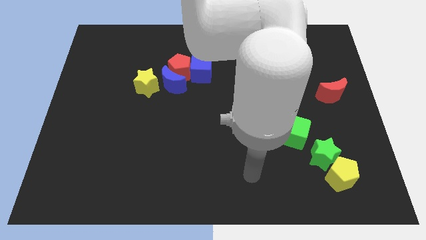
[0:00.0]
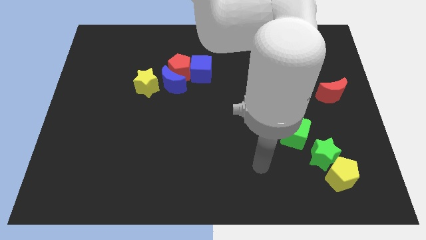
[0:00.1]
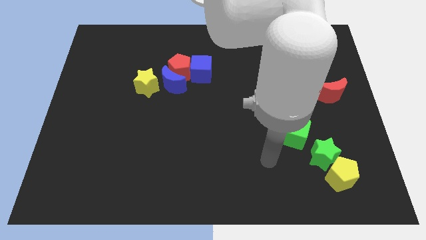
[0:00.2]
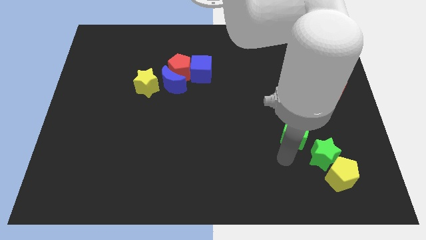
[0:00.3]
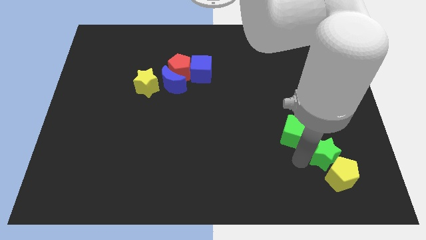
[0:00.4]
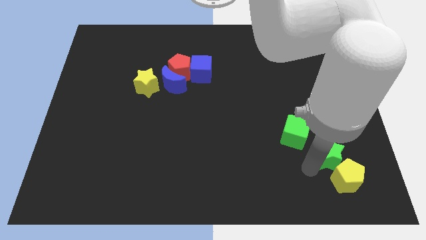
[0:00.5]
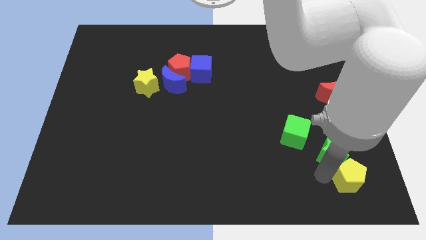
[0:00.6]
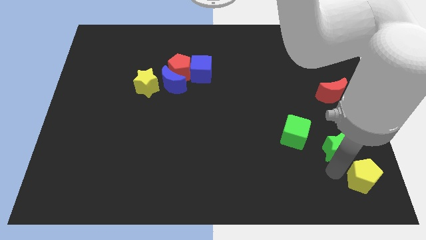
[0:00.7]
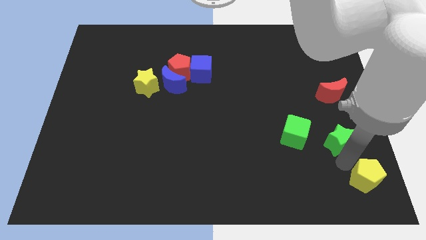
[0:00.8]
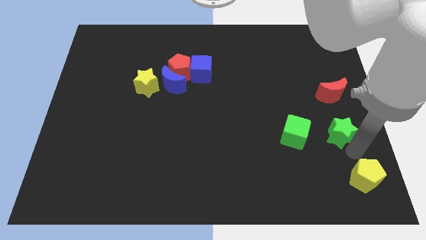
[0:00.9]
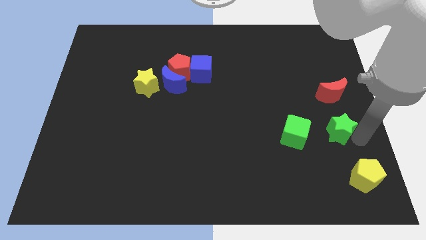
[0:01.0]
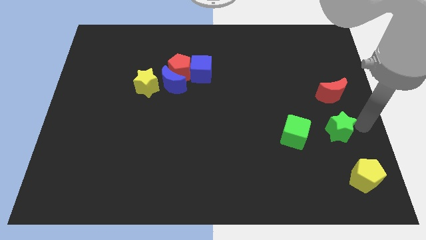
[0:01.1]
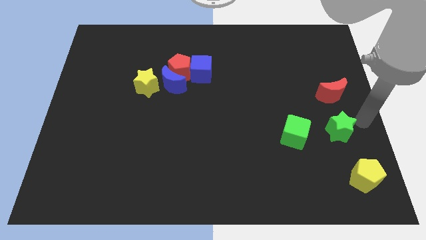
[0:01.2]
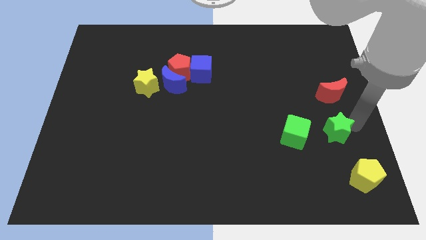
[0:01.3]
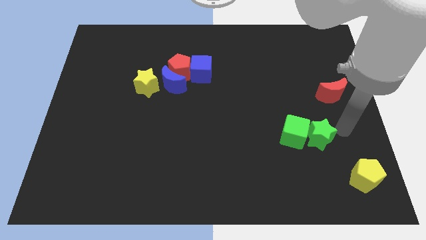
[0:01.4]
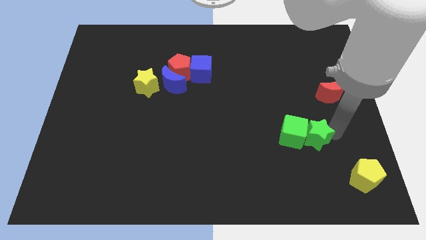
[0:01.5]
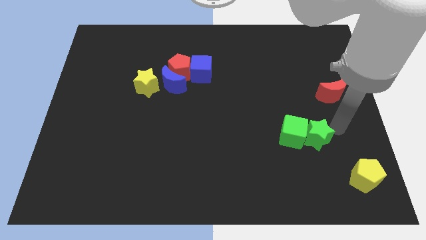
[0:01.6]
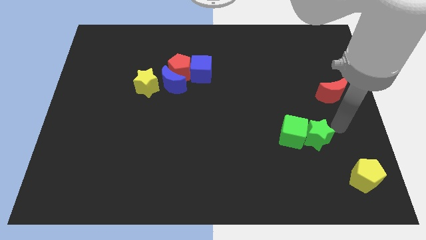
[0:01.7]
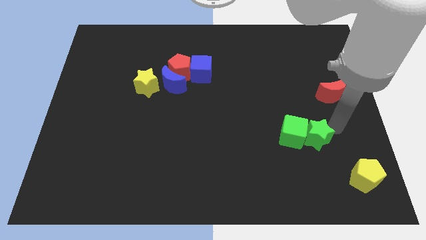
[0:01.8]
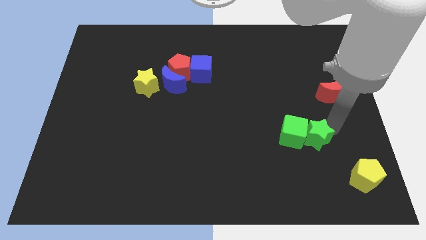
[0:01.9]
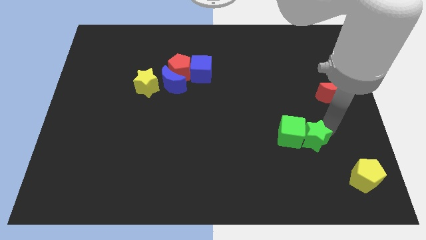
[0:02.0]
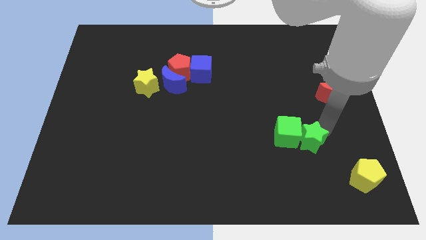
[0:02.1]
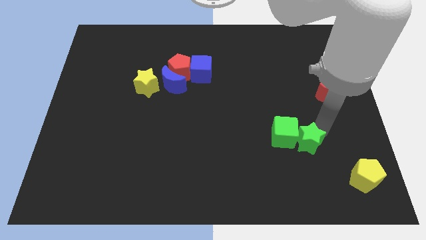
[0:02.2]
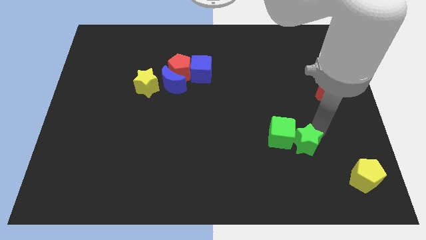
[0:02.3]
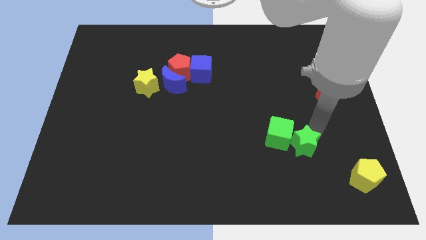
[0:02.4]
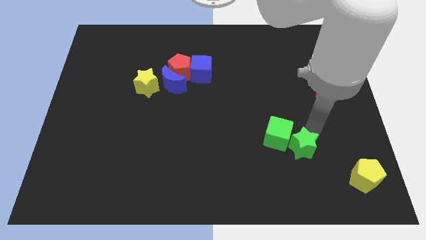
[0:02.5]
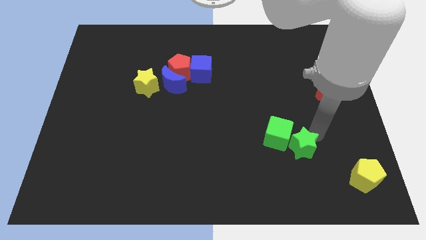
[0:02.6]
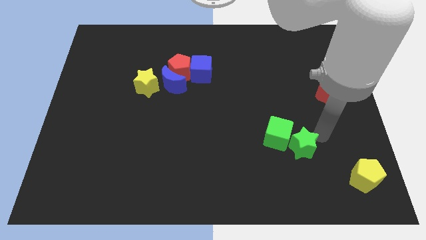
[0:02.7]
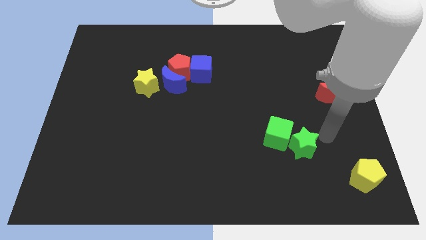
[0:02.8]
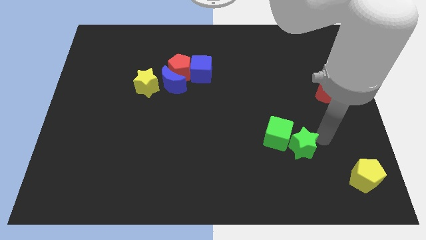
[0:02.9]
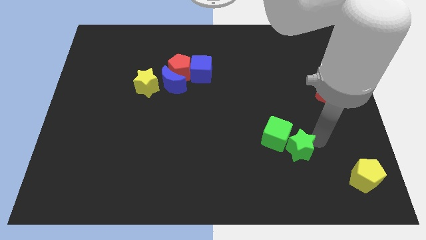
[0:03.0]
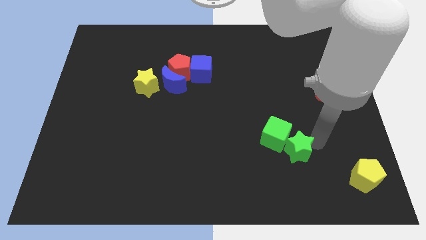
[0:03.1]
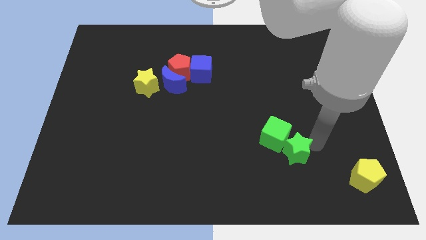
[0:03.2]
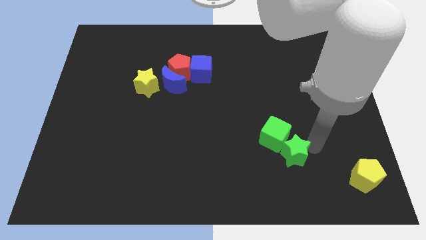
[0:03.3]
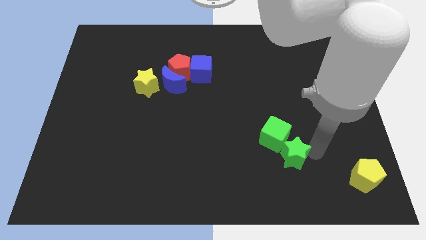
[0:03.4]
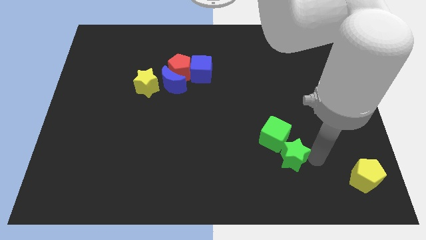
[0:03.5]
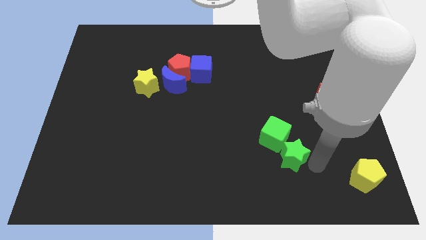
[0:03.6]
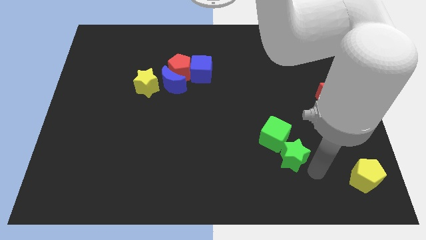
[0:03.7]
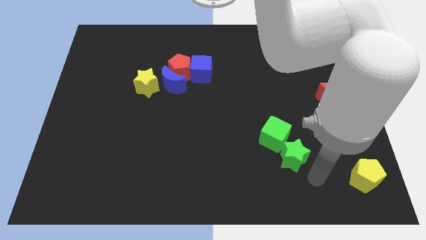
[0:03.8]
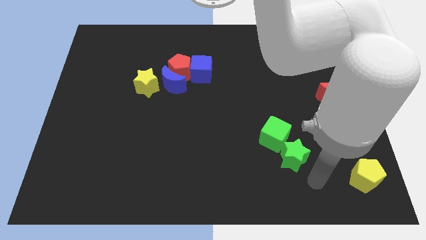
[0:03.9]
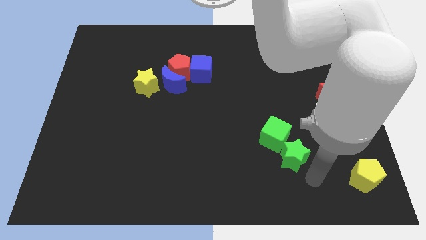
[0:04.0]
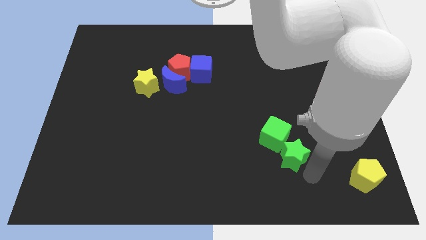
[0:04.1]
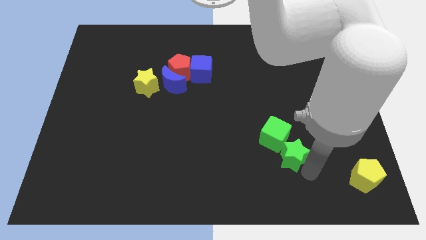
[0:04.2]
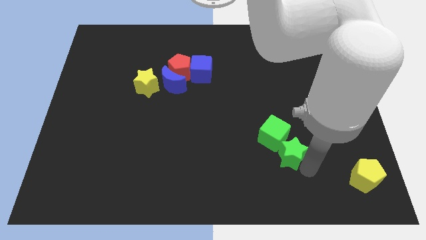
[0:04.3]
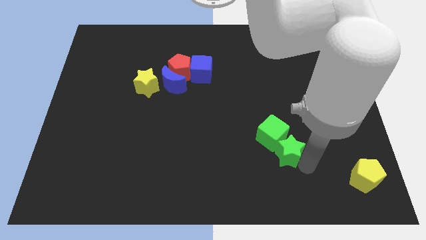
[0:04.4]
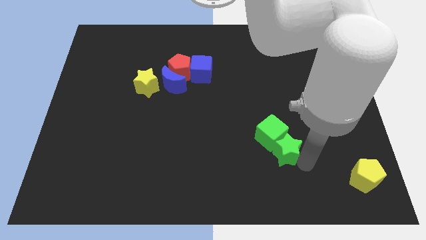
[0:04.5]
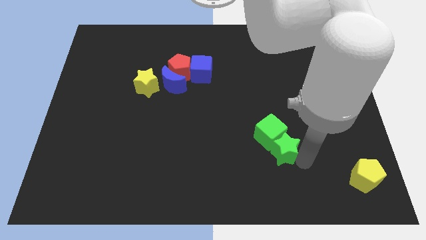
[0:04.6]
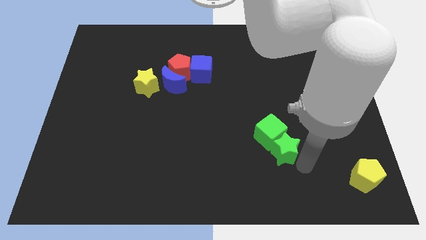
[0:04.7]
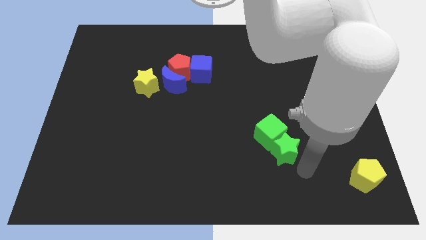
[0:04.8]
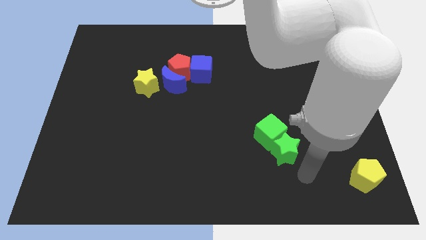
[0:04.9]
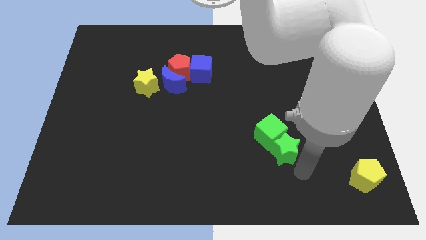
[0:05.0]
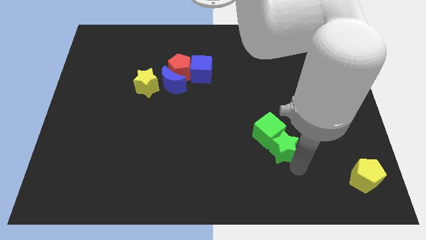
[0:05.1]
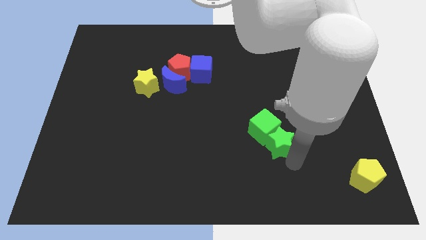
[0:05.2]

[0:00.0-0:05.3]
slide the green star somewhat upwards and left diagonally

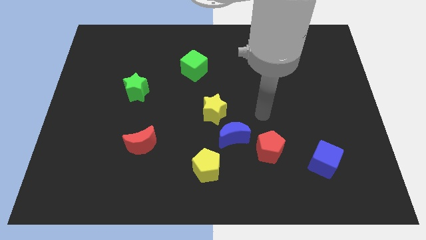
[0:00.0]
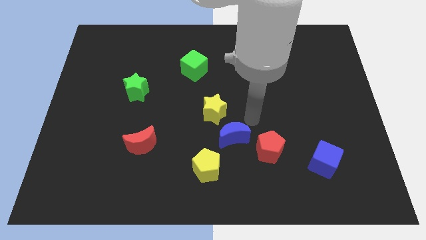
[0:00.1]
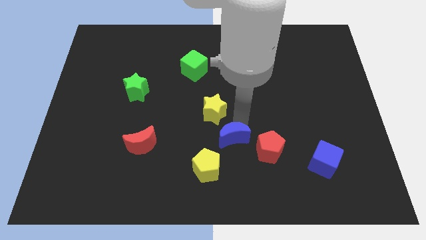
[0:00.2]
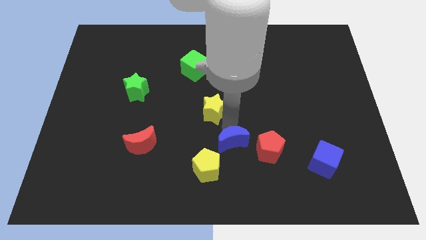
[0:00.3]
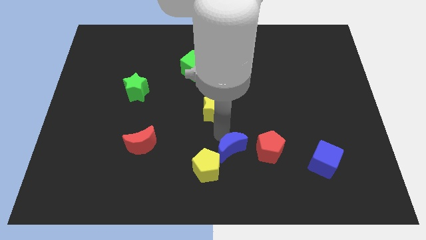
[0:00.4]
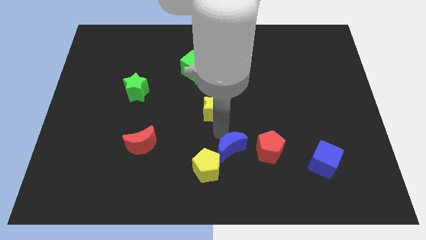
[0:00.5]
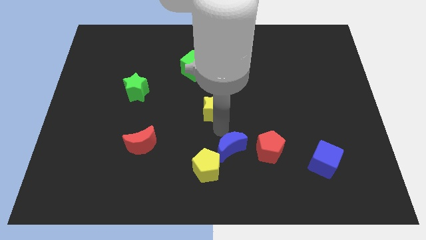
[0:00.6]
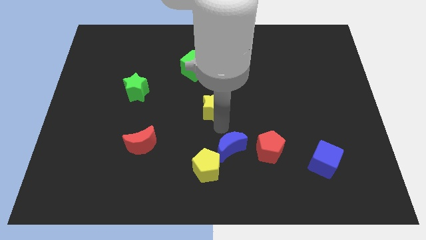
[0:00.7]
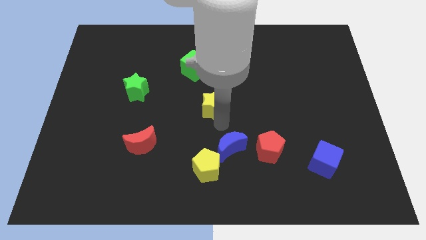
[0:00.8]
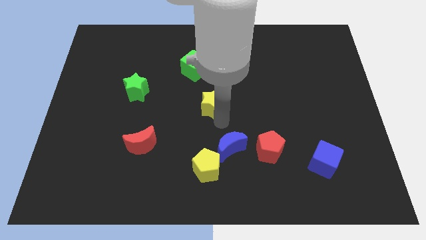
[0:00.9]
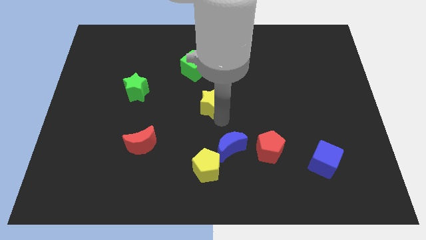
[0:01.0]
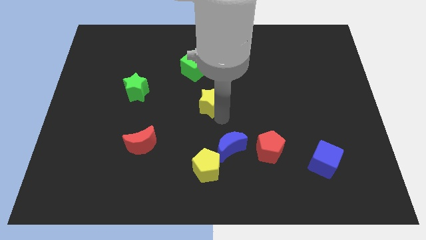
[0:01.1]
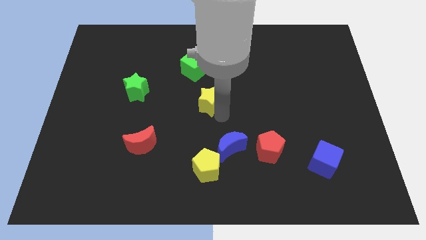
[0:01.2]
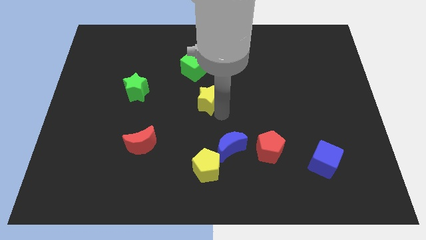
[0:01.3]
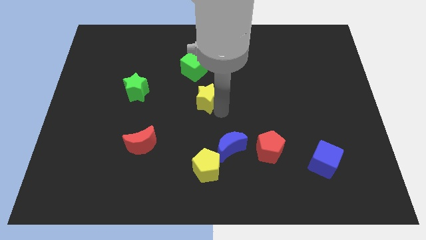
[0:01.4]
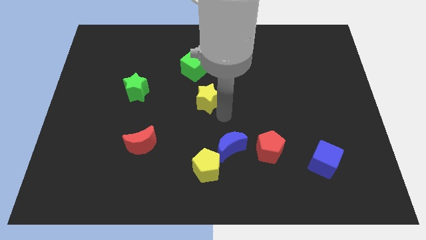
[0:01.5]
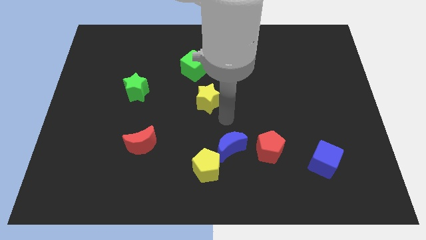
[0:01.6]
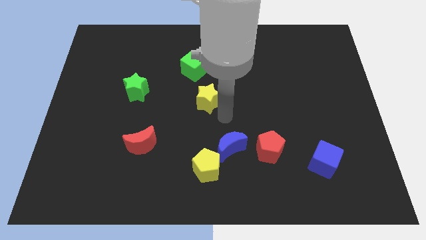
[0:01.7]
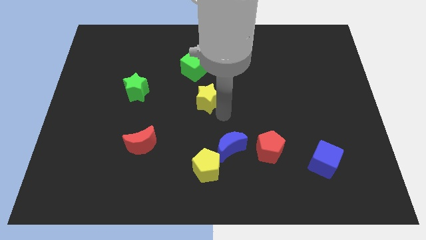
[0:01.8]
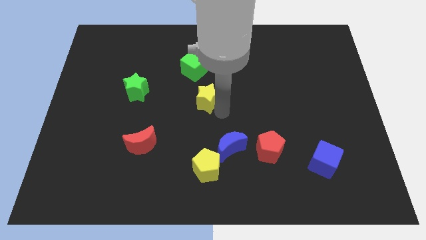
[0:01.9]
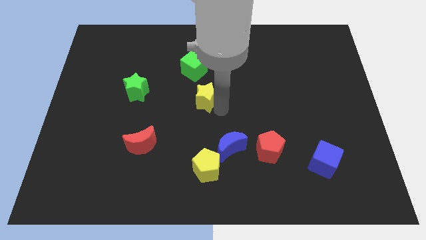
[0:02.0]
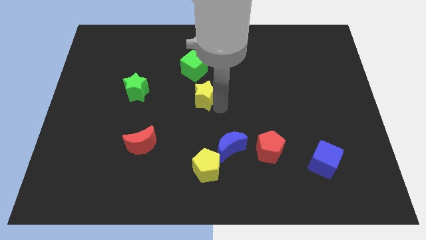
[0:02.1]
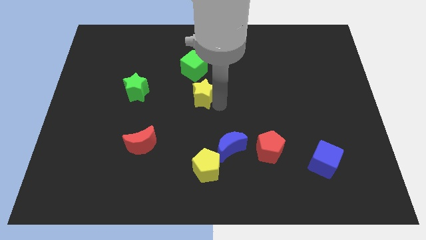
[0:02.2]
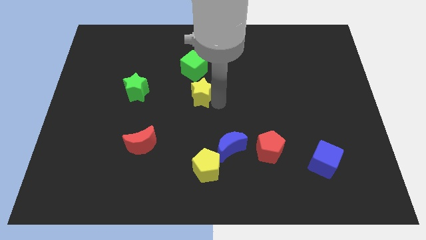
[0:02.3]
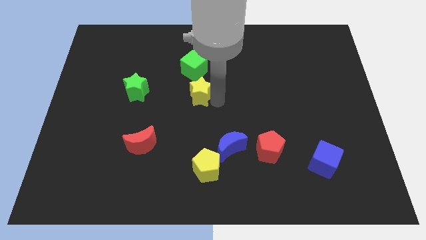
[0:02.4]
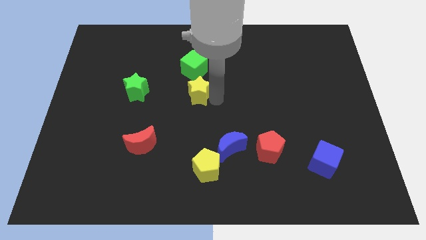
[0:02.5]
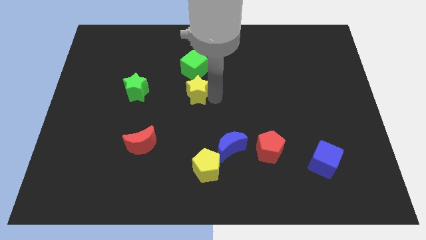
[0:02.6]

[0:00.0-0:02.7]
push the yellow star slightly upwards and then to the left

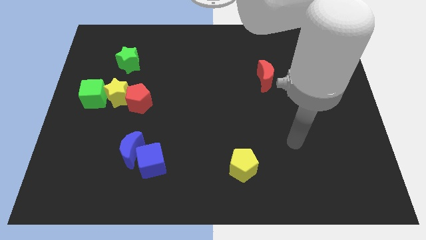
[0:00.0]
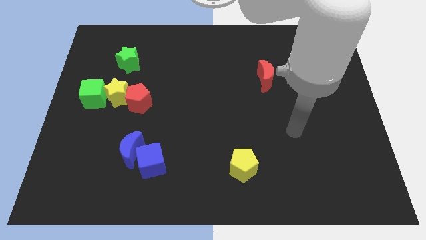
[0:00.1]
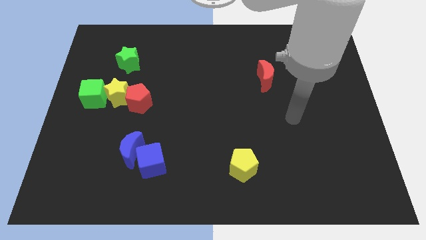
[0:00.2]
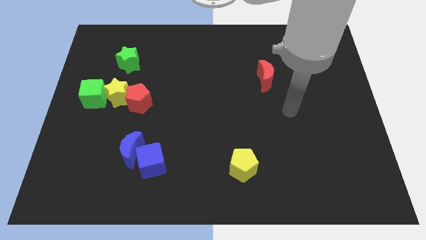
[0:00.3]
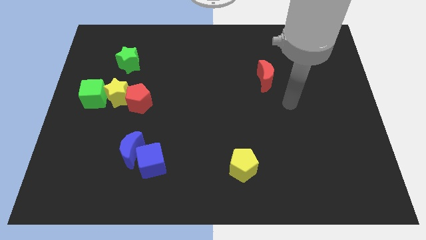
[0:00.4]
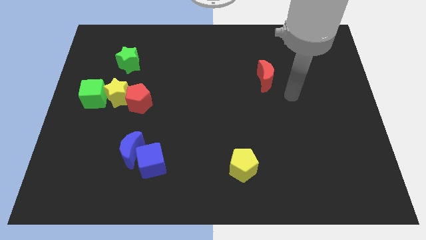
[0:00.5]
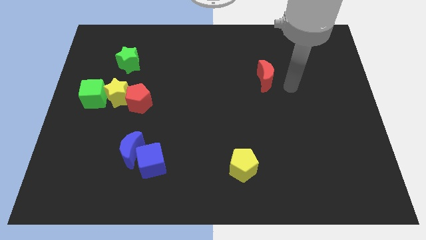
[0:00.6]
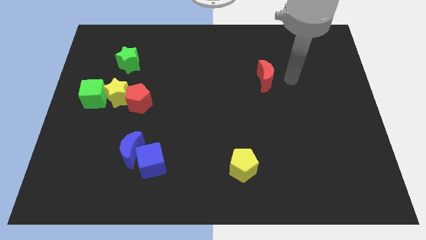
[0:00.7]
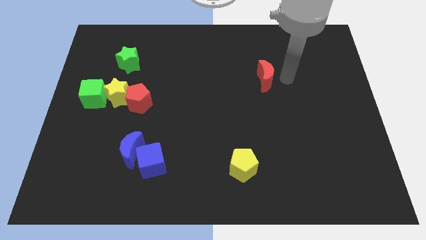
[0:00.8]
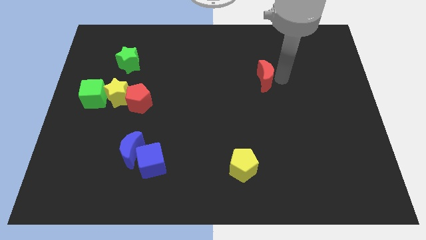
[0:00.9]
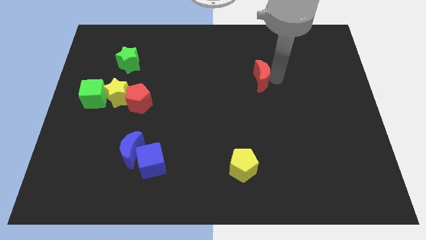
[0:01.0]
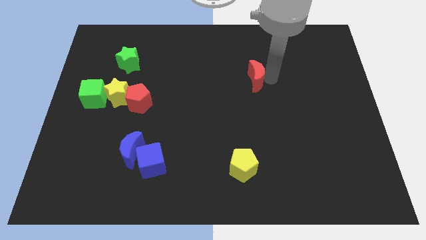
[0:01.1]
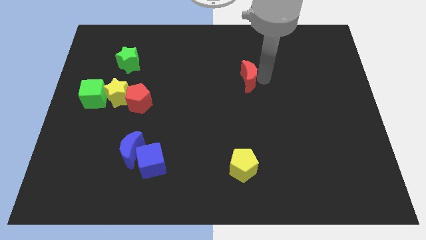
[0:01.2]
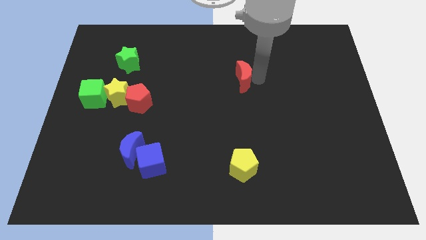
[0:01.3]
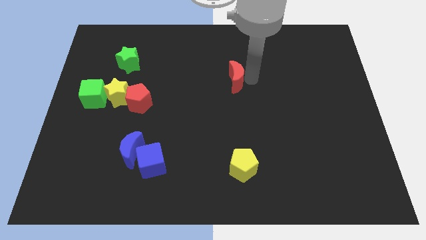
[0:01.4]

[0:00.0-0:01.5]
slightly move the red moon left
